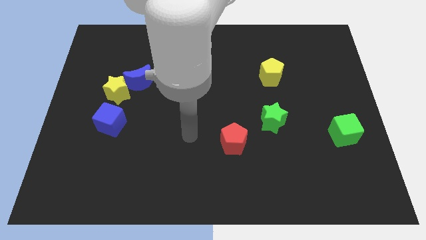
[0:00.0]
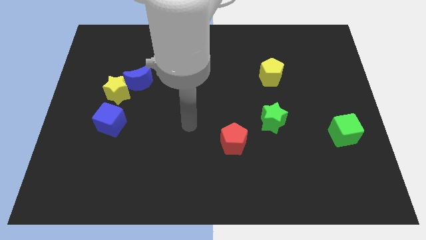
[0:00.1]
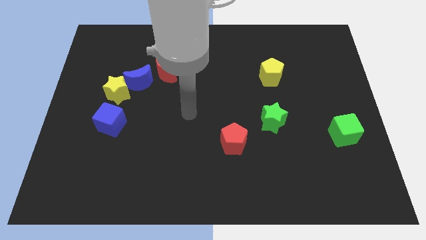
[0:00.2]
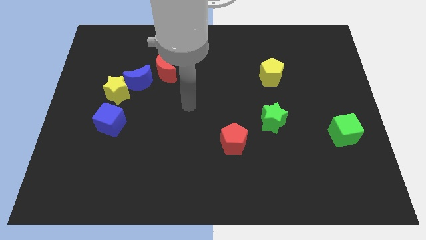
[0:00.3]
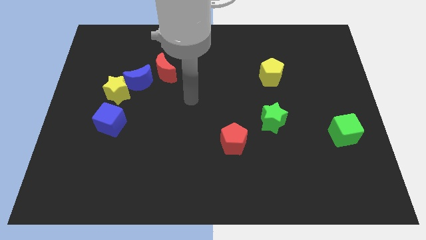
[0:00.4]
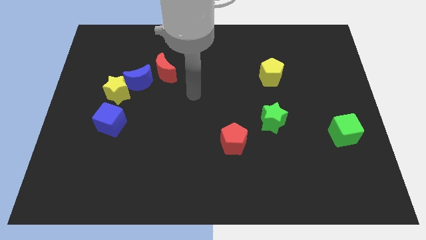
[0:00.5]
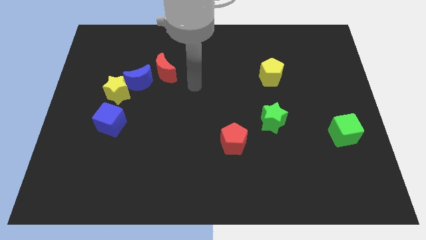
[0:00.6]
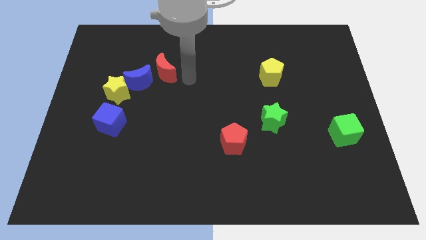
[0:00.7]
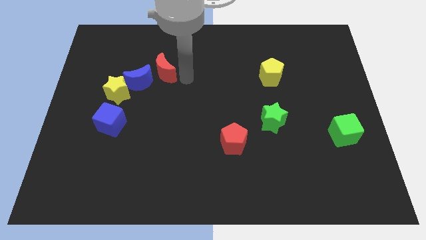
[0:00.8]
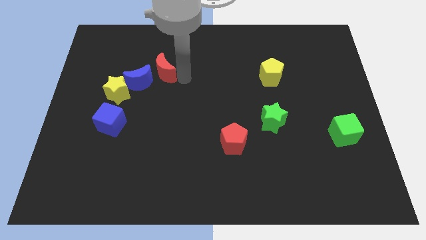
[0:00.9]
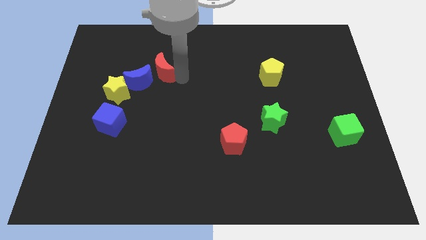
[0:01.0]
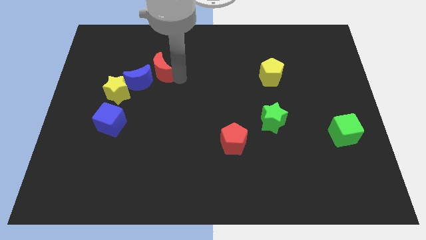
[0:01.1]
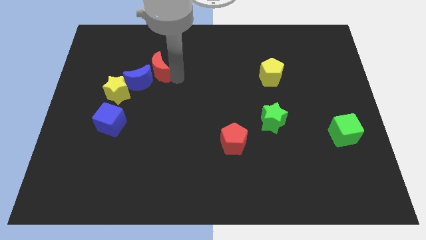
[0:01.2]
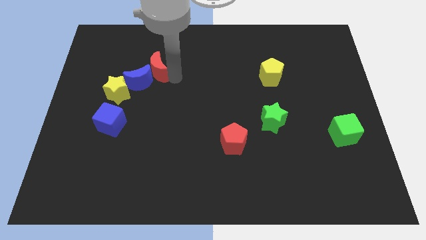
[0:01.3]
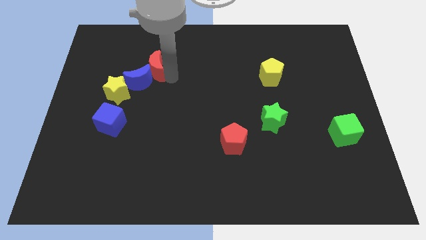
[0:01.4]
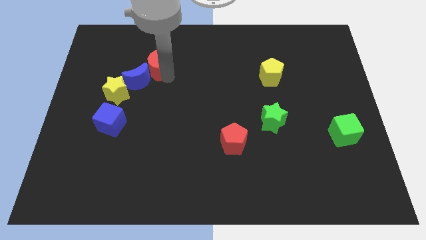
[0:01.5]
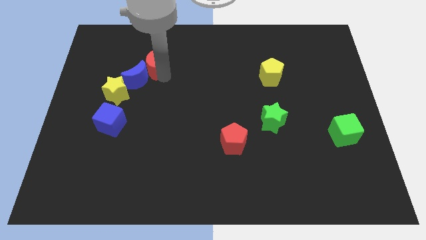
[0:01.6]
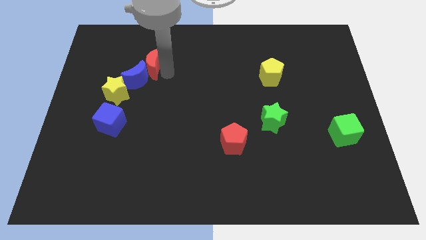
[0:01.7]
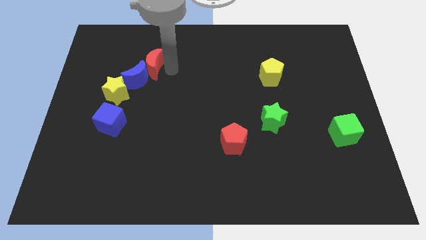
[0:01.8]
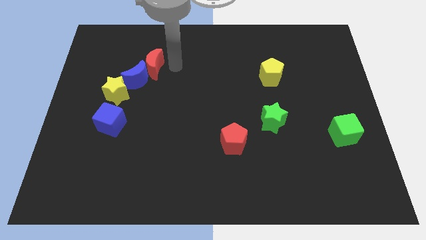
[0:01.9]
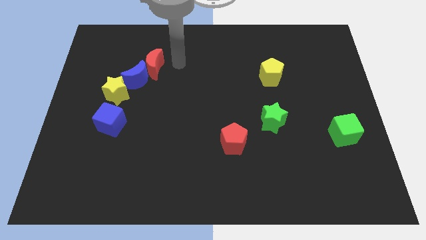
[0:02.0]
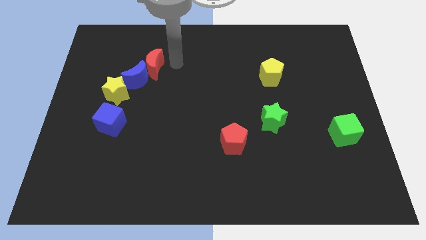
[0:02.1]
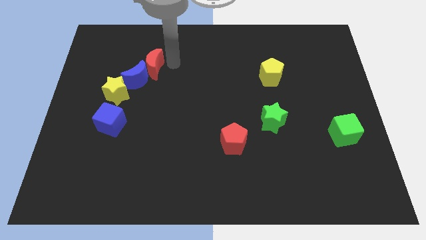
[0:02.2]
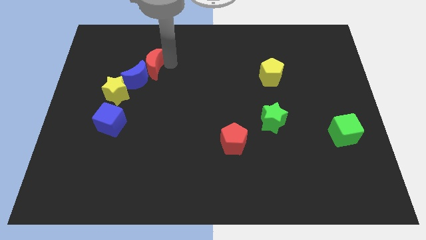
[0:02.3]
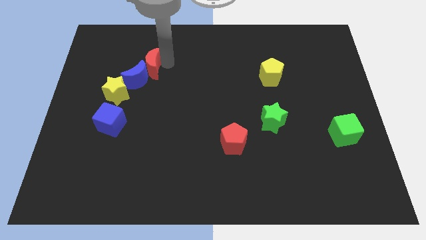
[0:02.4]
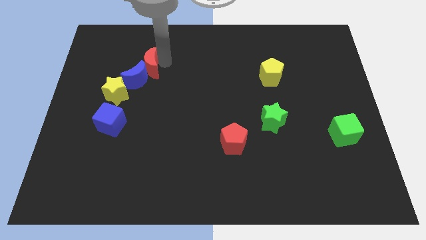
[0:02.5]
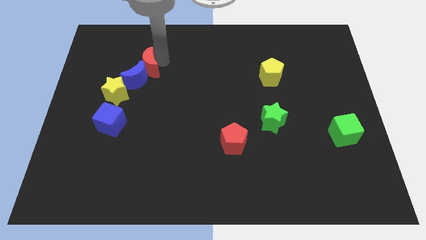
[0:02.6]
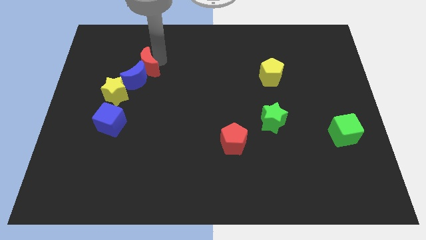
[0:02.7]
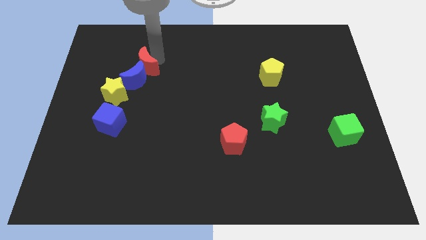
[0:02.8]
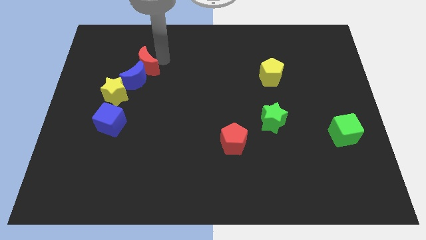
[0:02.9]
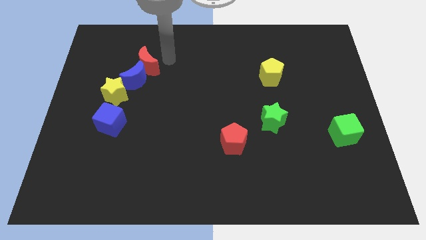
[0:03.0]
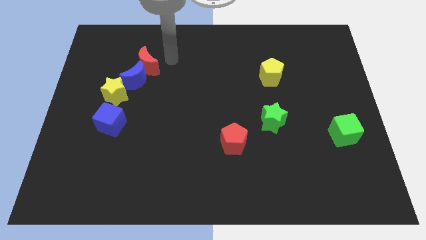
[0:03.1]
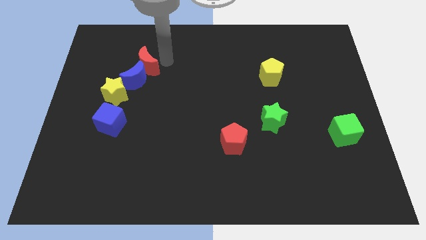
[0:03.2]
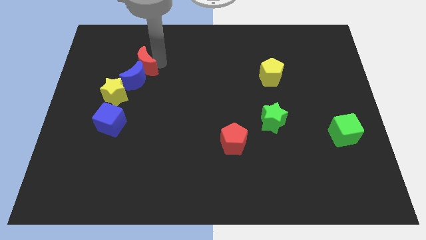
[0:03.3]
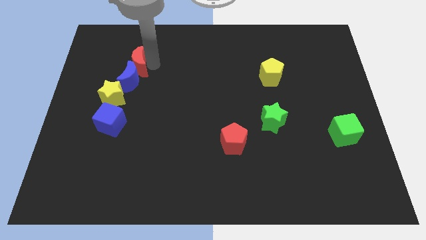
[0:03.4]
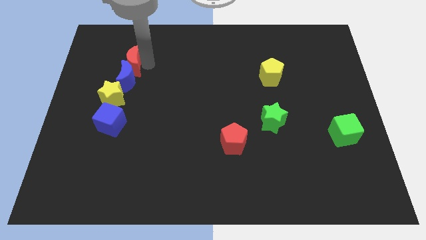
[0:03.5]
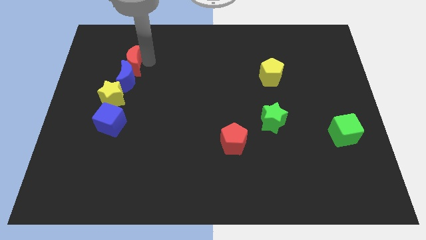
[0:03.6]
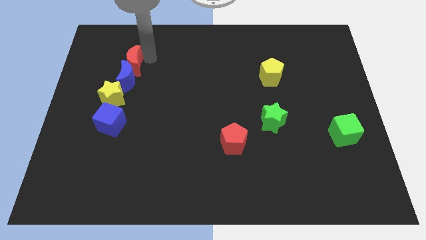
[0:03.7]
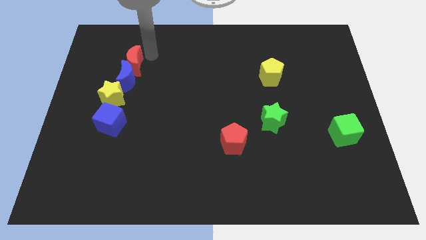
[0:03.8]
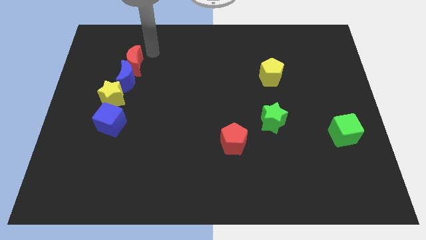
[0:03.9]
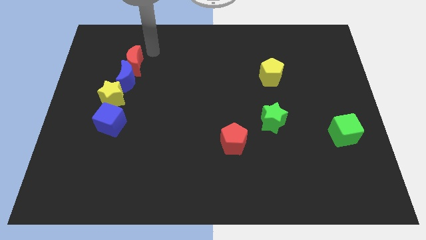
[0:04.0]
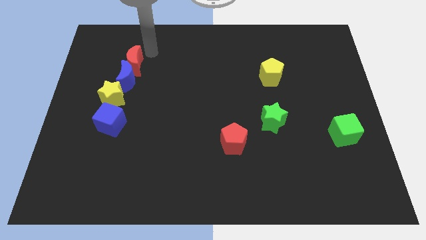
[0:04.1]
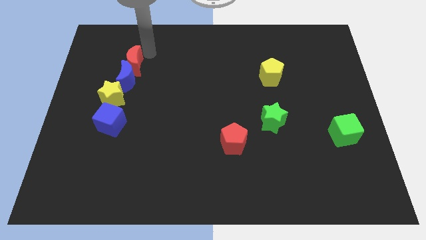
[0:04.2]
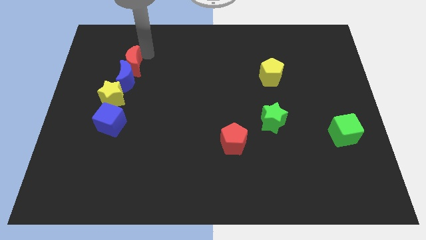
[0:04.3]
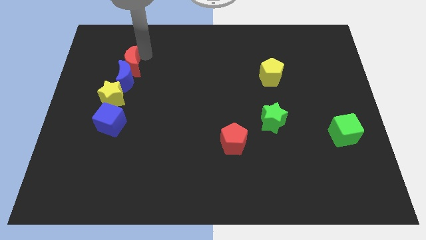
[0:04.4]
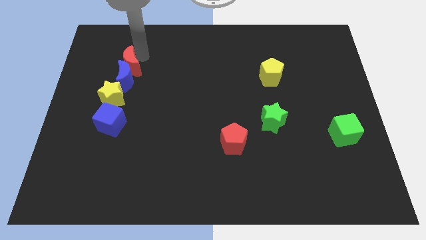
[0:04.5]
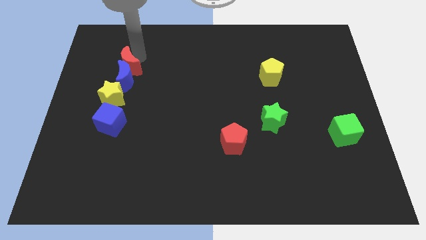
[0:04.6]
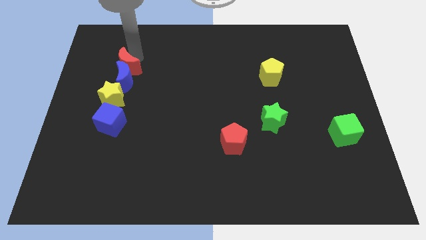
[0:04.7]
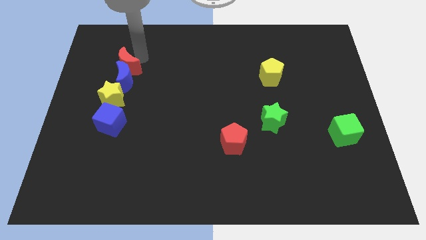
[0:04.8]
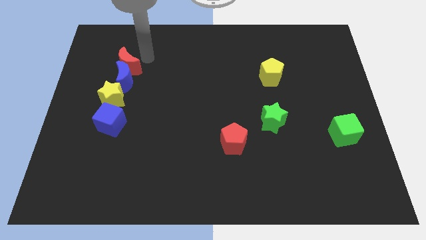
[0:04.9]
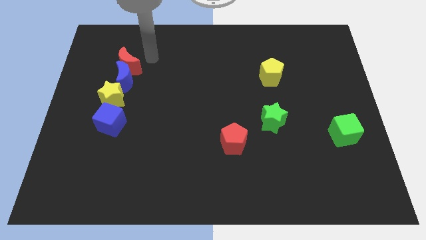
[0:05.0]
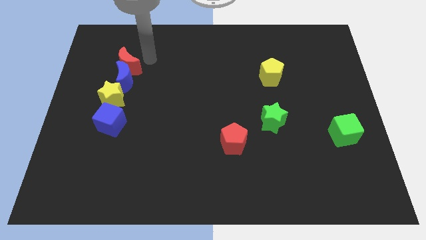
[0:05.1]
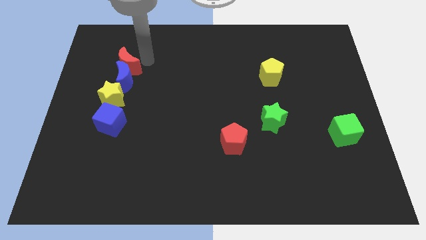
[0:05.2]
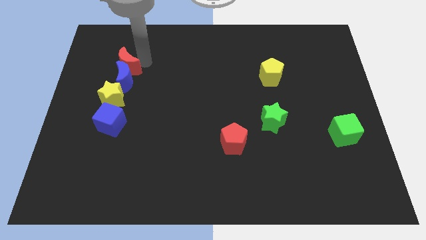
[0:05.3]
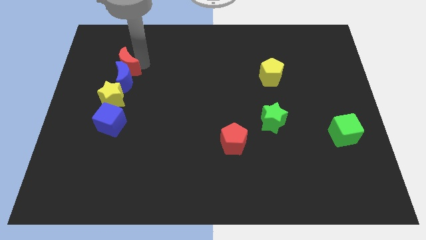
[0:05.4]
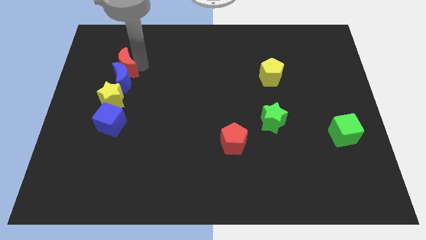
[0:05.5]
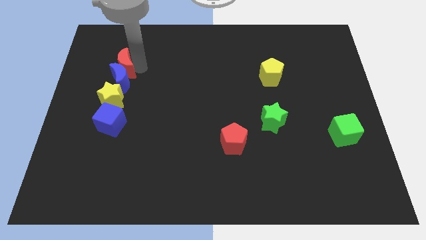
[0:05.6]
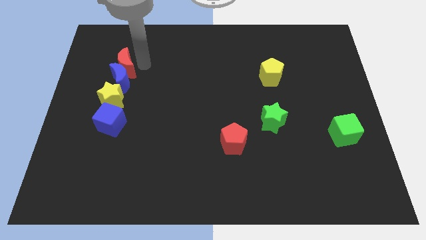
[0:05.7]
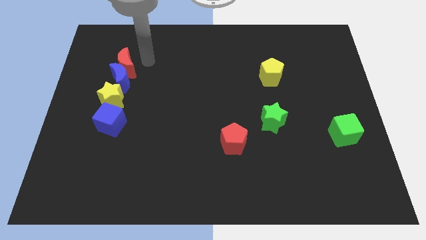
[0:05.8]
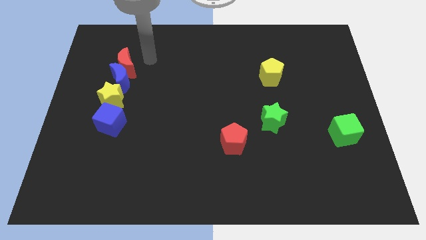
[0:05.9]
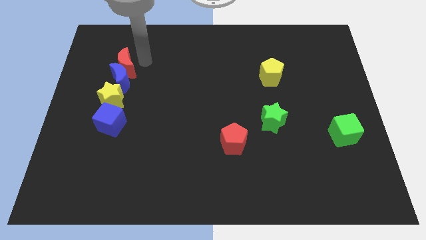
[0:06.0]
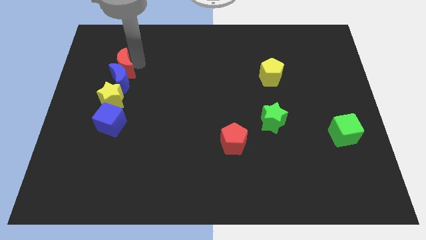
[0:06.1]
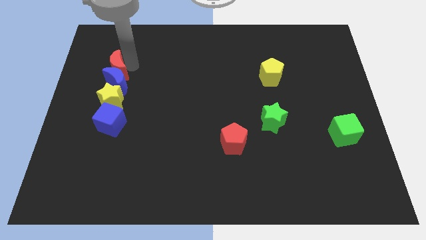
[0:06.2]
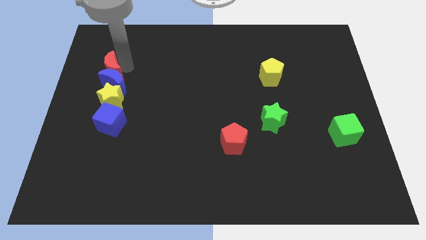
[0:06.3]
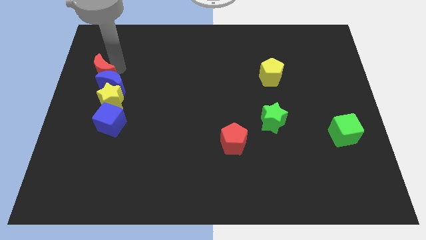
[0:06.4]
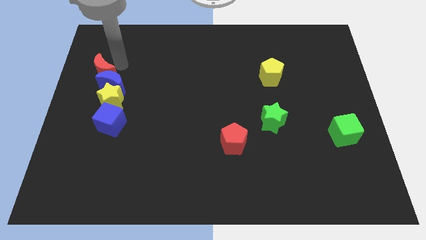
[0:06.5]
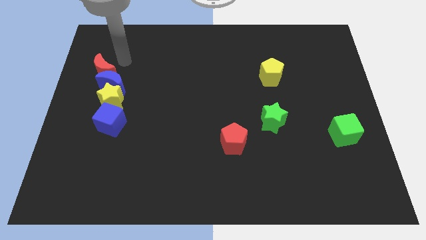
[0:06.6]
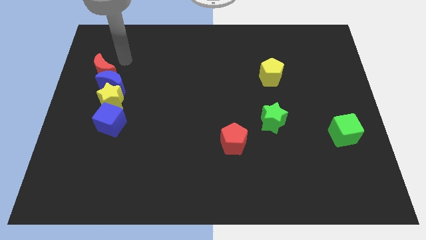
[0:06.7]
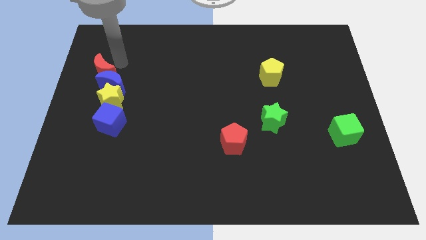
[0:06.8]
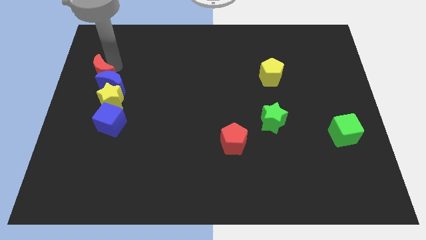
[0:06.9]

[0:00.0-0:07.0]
move the red moon to the left side of the board

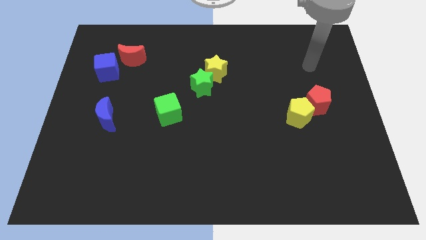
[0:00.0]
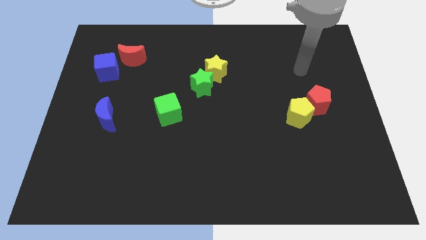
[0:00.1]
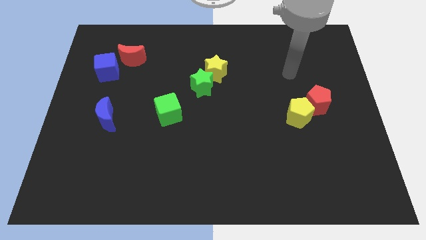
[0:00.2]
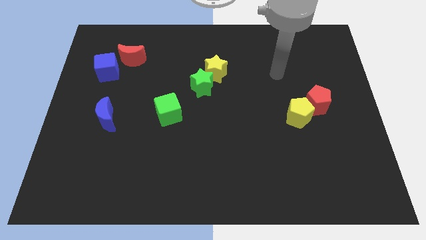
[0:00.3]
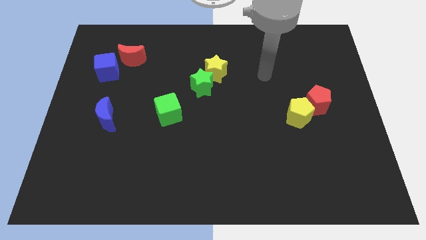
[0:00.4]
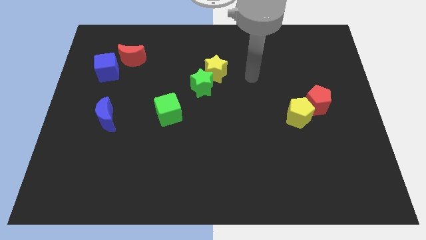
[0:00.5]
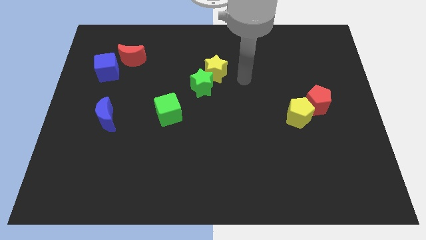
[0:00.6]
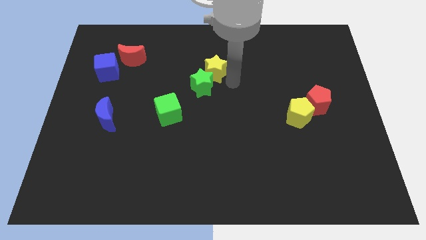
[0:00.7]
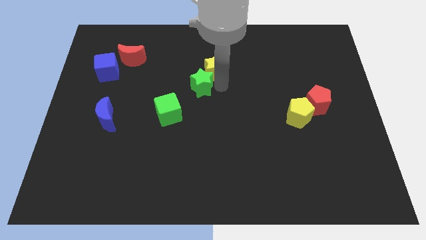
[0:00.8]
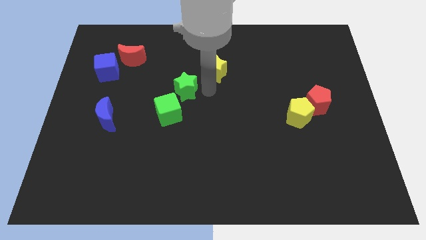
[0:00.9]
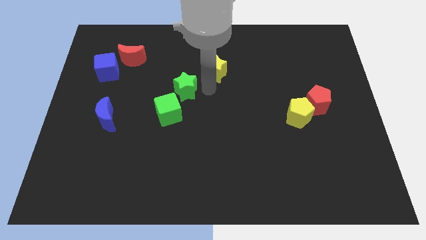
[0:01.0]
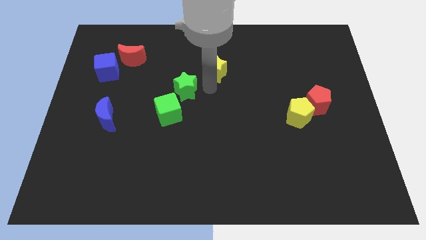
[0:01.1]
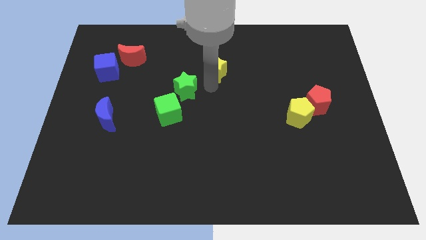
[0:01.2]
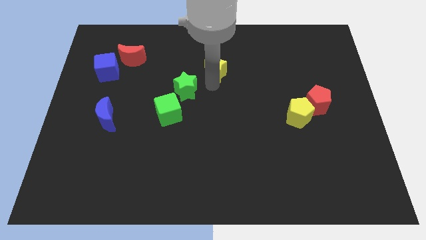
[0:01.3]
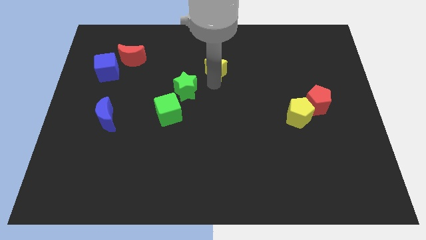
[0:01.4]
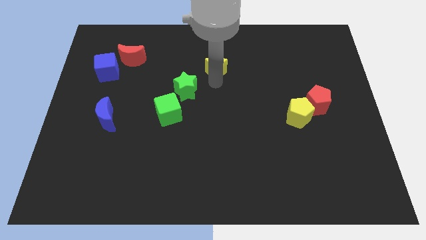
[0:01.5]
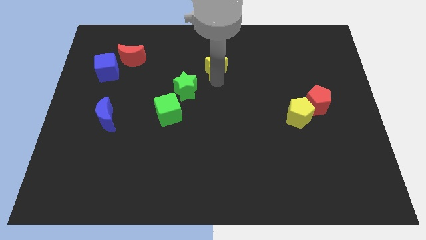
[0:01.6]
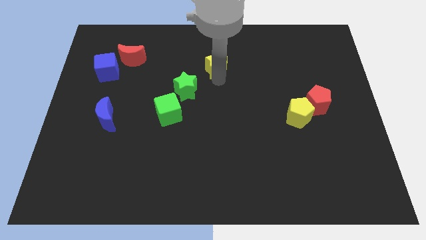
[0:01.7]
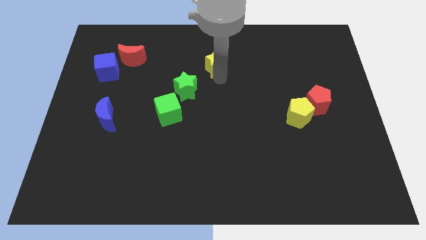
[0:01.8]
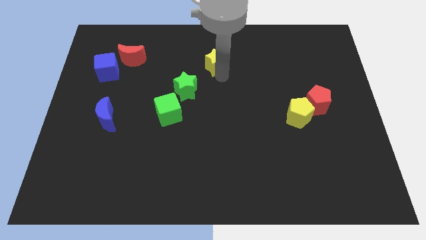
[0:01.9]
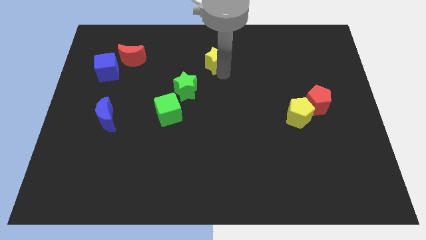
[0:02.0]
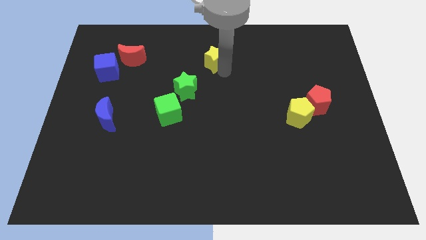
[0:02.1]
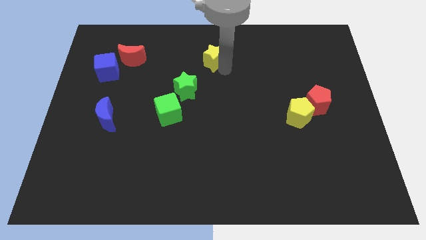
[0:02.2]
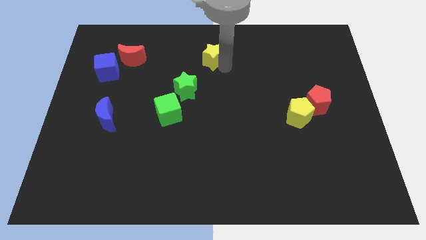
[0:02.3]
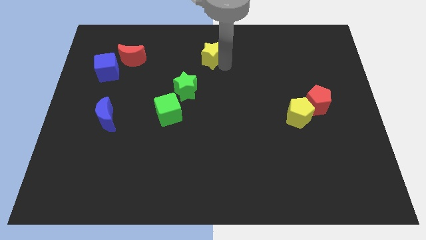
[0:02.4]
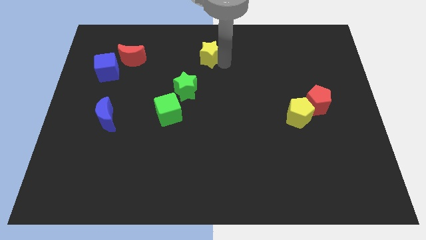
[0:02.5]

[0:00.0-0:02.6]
slide the yellow star to the top
